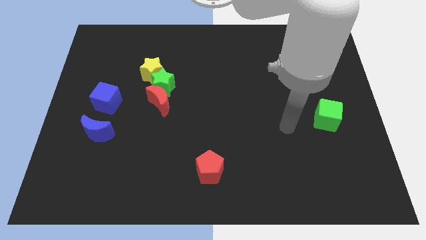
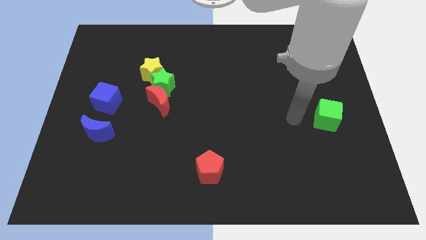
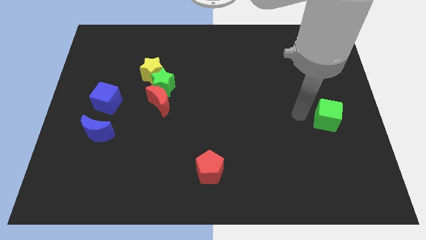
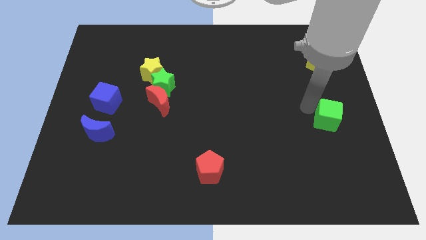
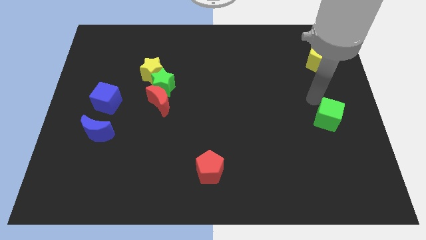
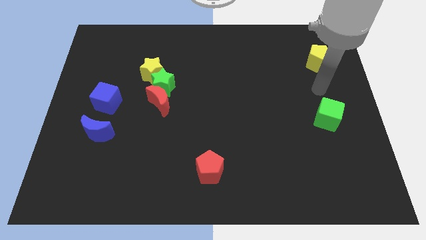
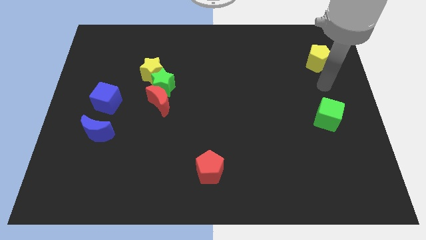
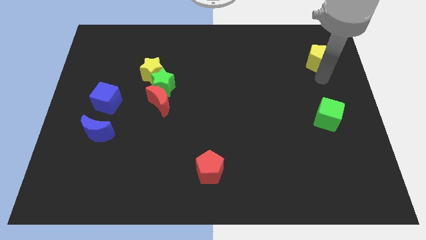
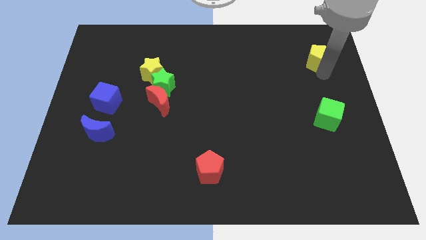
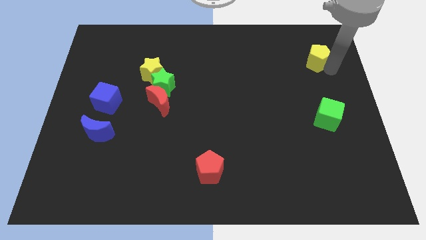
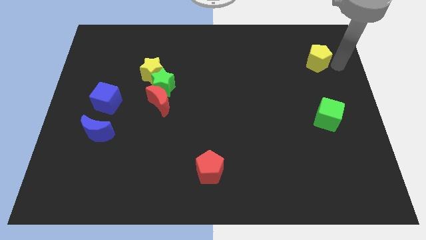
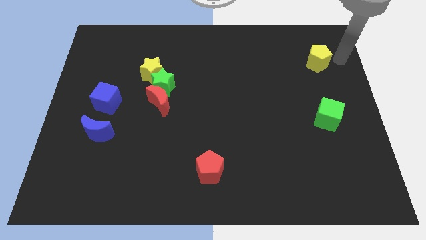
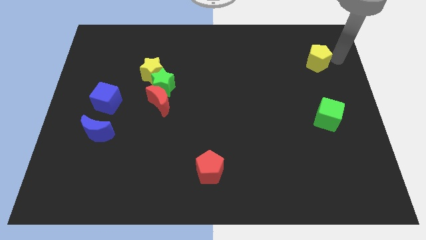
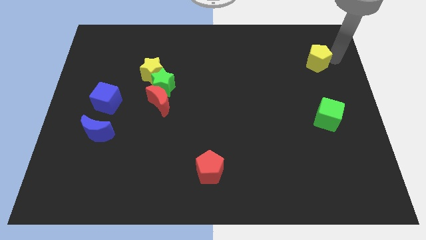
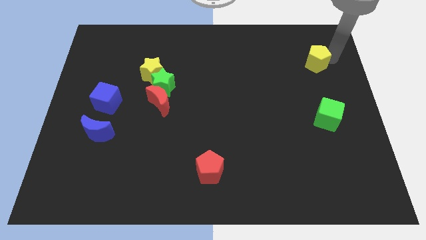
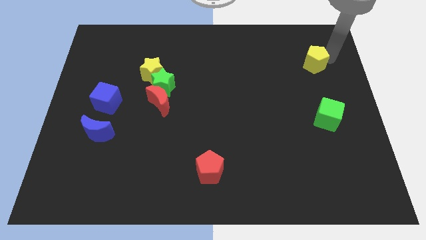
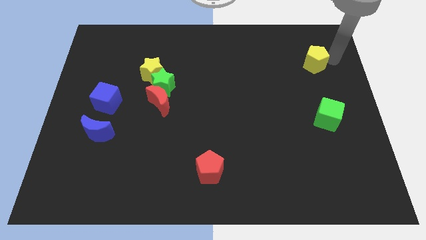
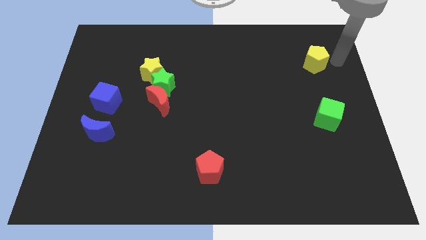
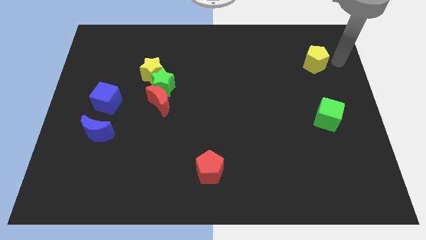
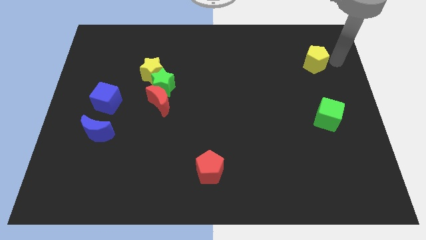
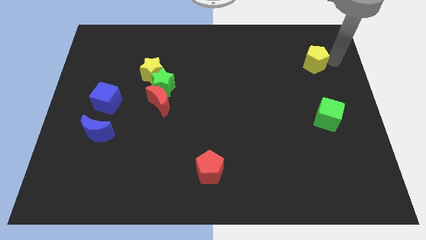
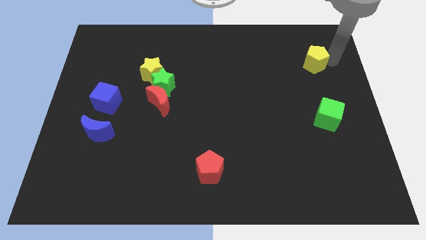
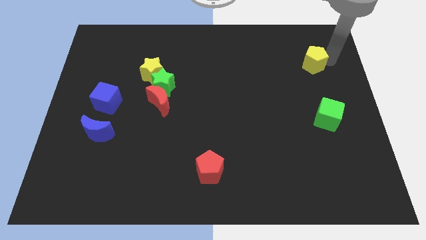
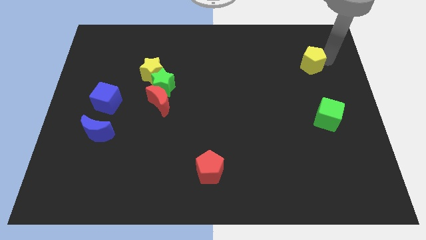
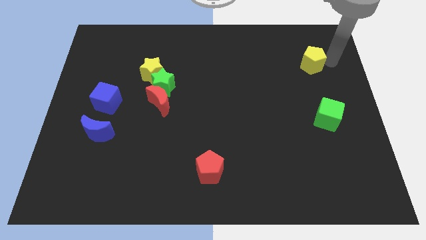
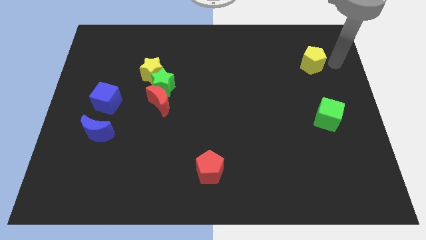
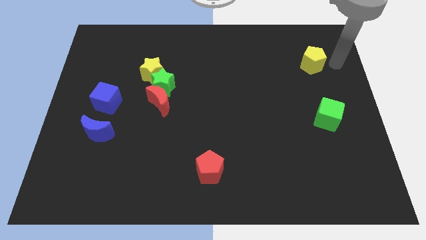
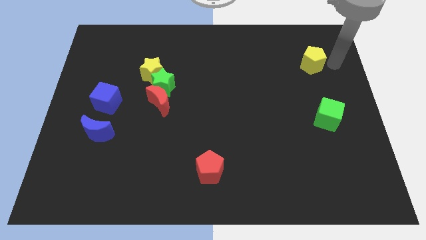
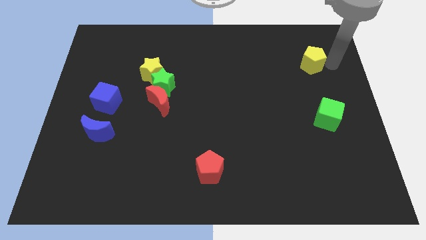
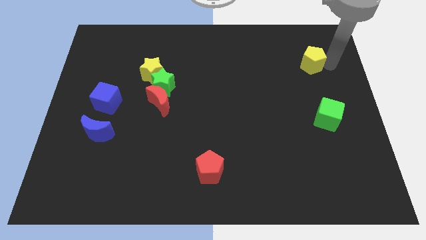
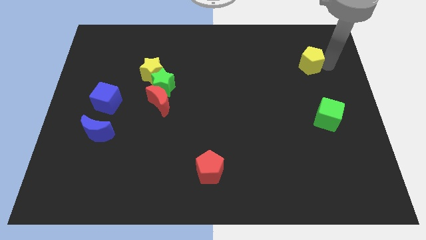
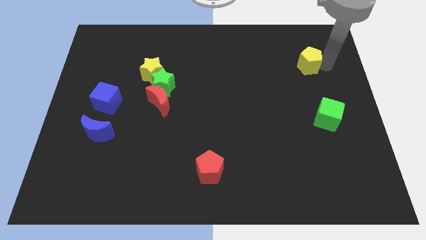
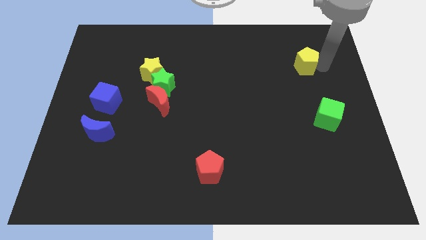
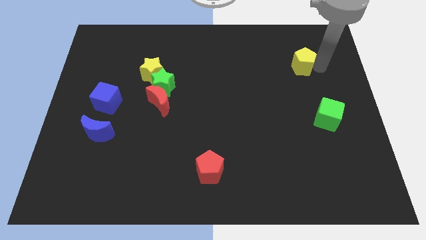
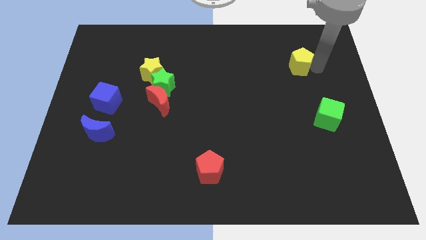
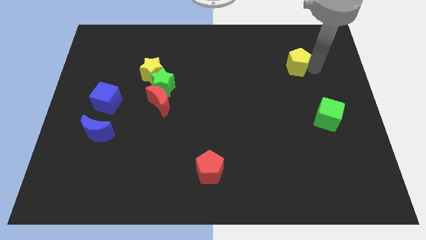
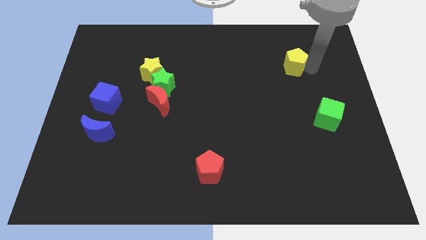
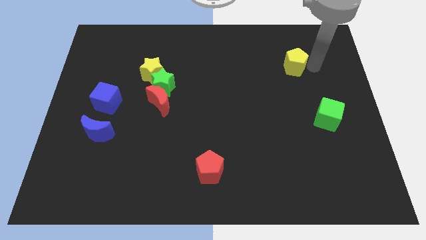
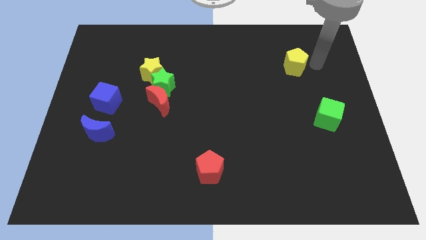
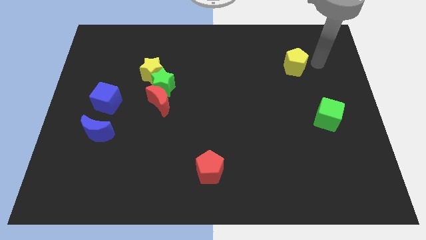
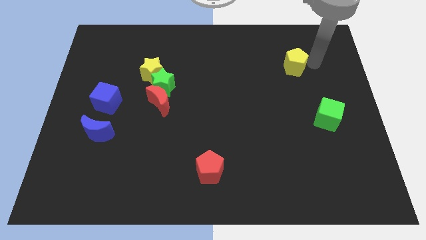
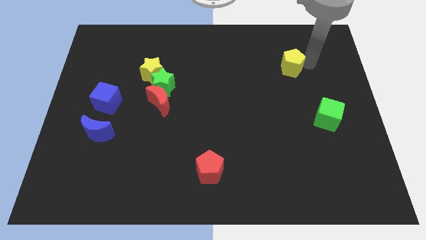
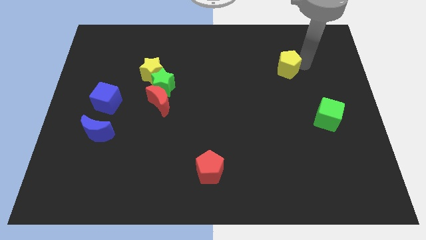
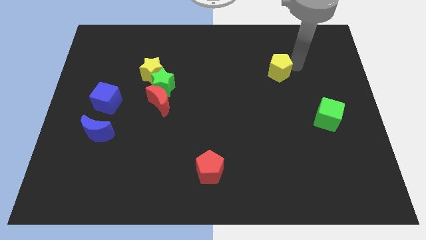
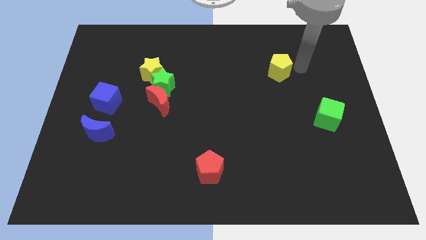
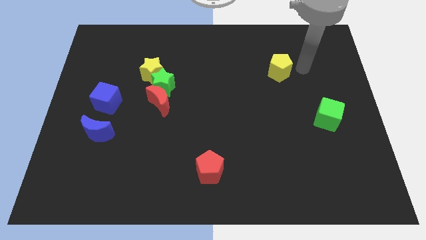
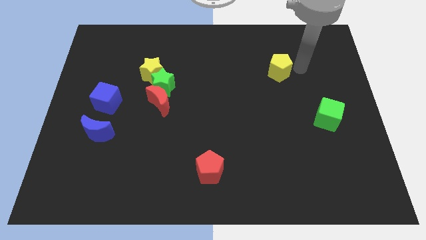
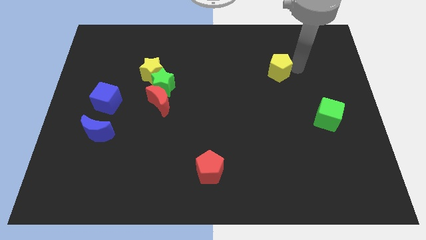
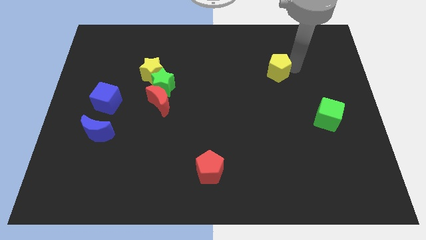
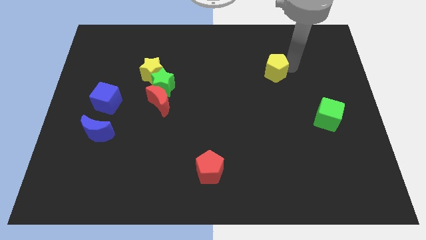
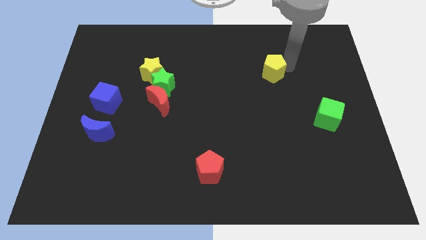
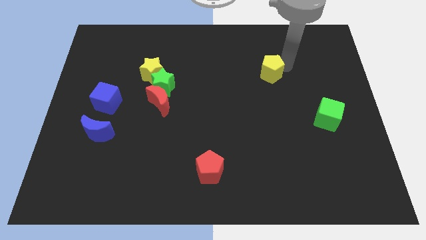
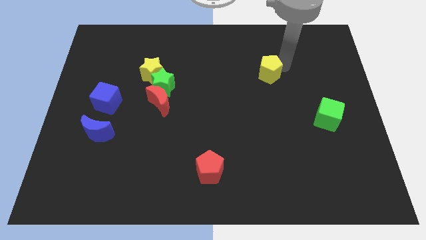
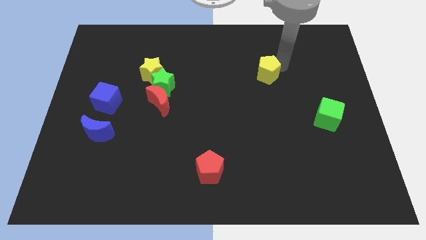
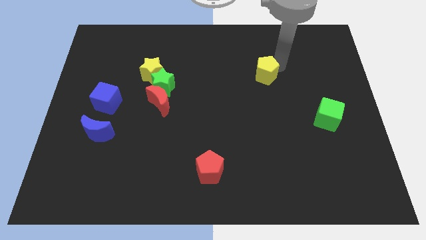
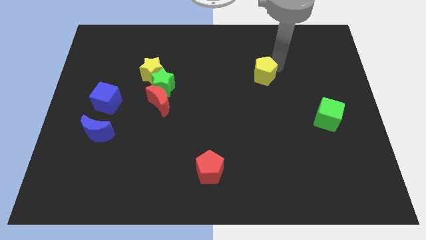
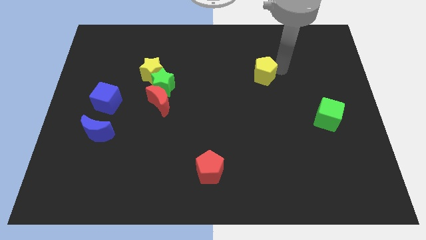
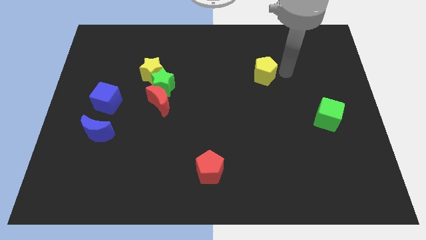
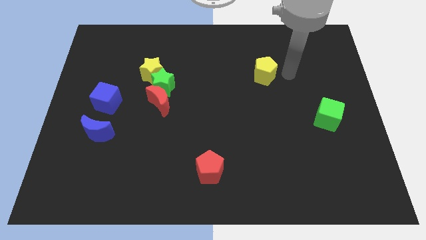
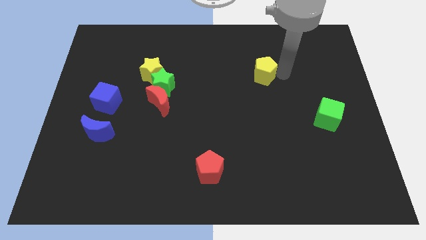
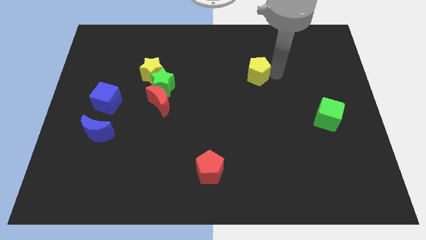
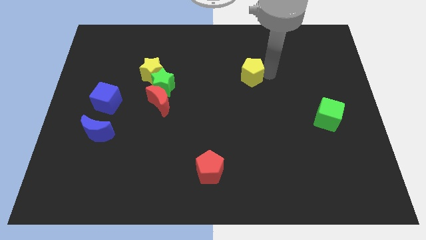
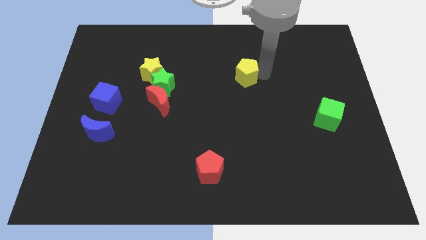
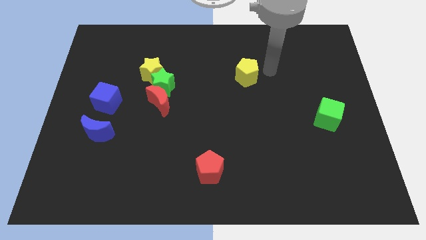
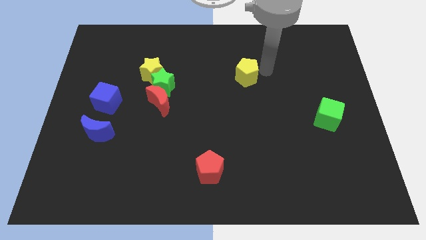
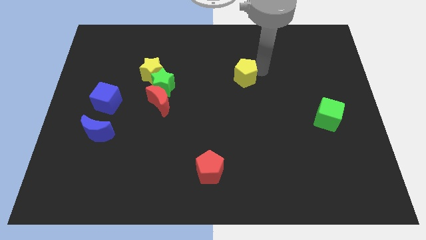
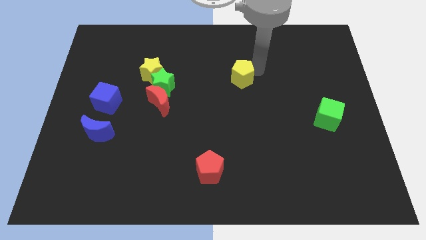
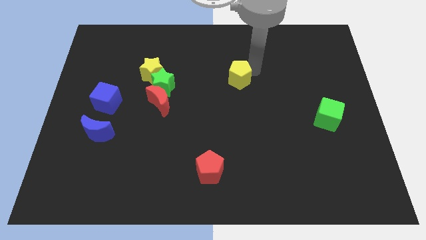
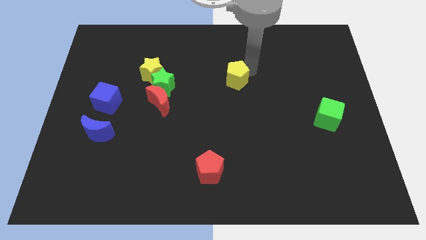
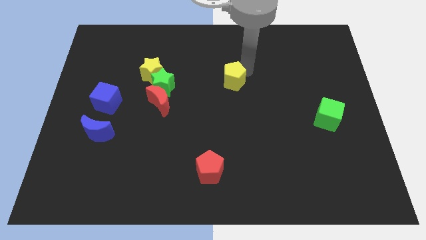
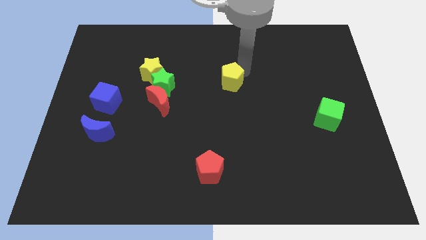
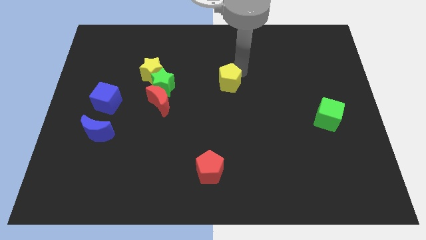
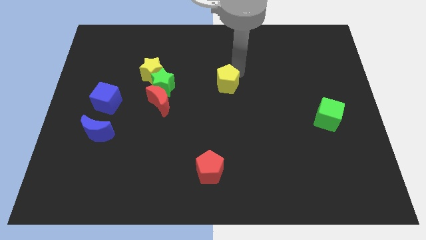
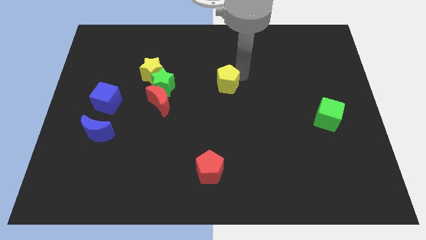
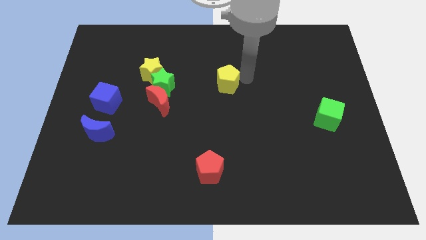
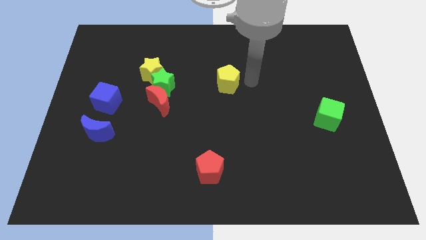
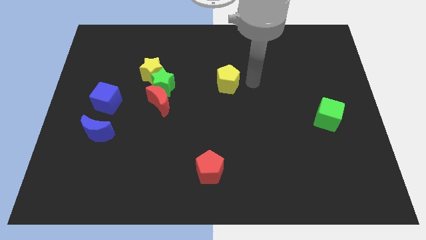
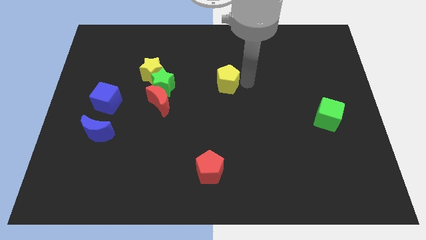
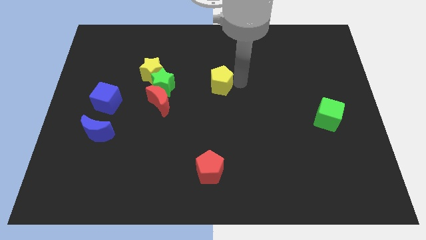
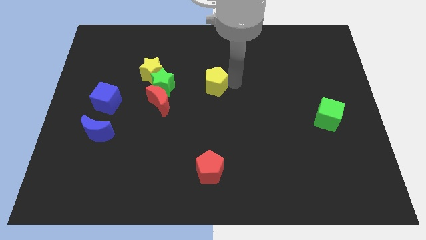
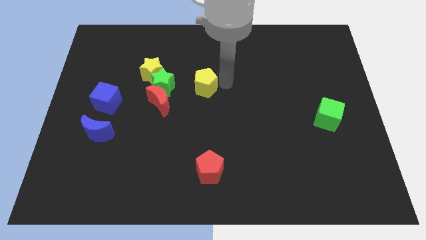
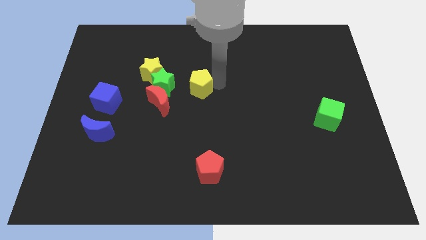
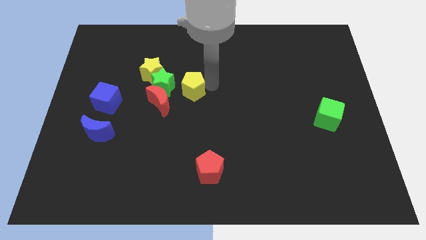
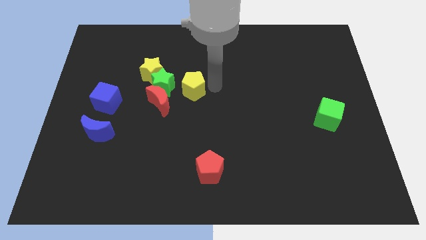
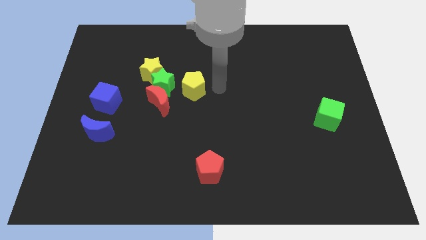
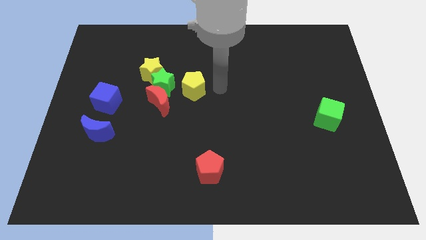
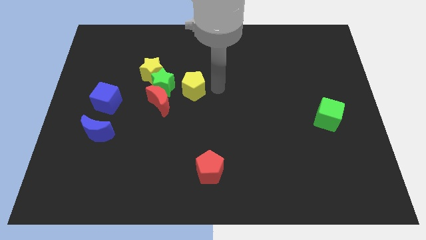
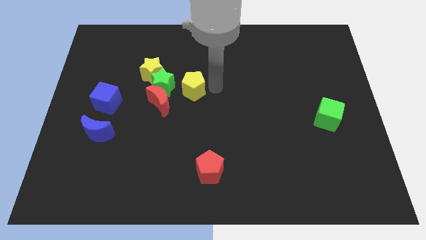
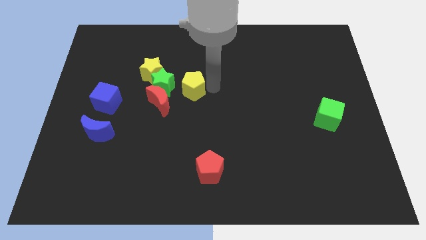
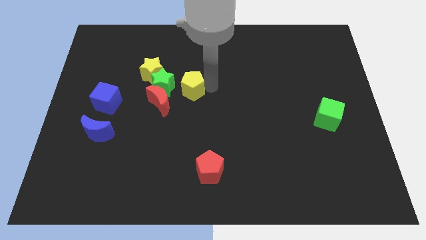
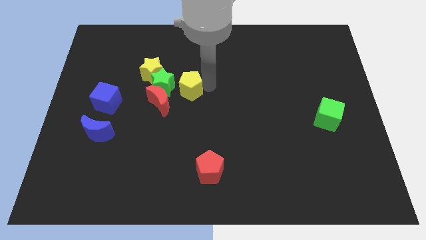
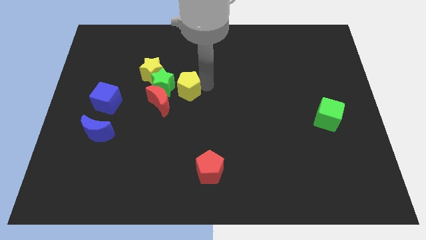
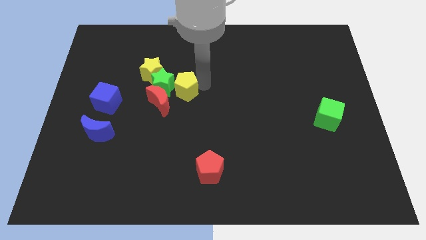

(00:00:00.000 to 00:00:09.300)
push the yellow pentagon next to the green star
